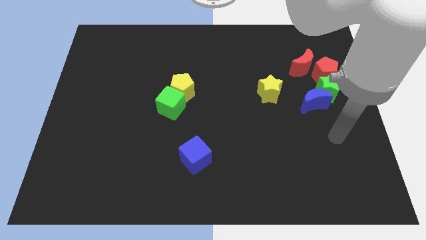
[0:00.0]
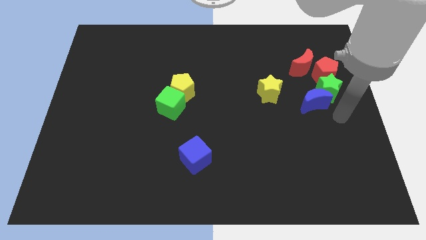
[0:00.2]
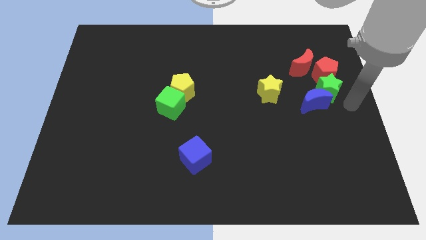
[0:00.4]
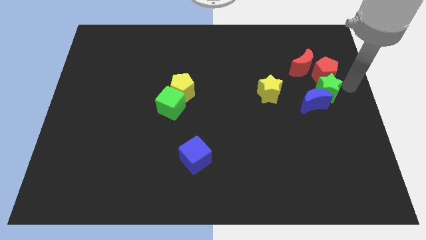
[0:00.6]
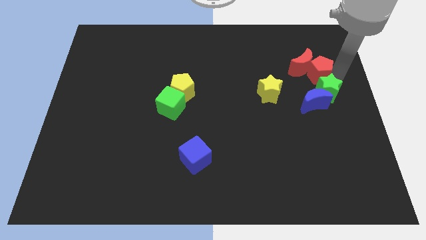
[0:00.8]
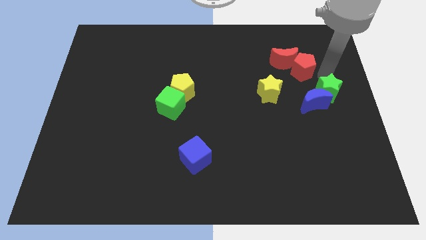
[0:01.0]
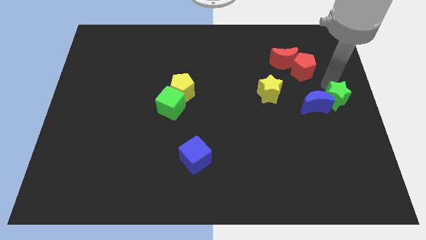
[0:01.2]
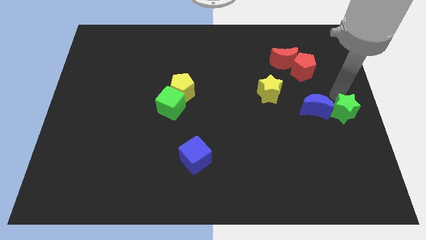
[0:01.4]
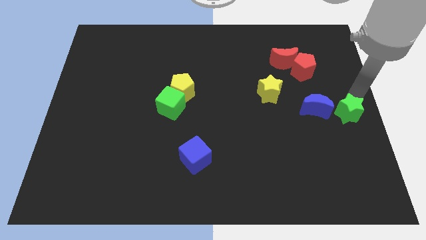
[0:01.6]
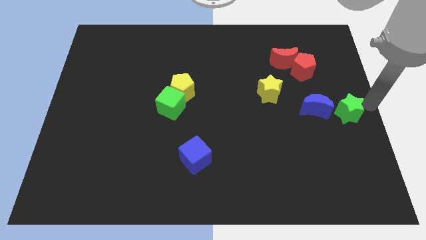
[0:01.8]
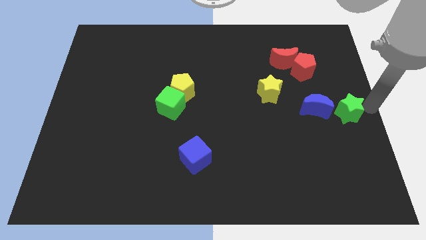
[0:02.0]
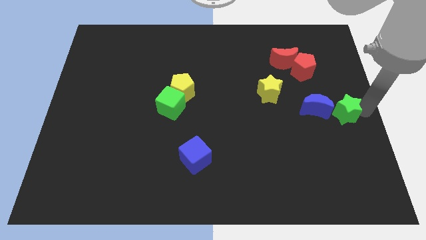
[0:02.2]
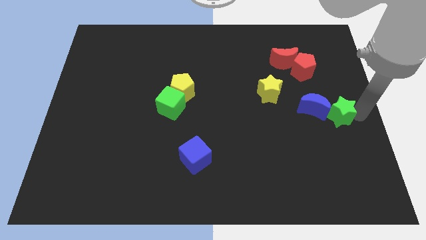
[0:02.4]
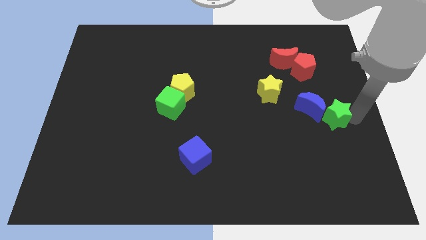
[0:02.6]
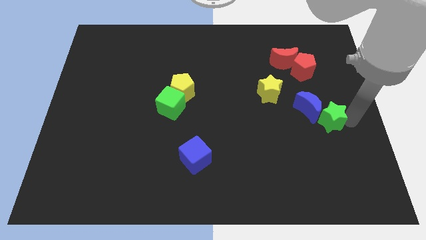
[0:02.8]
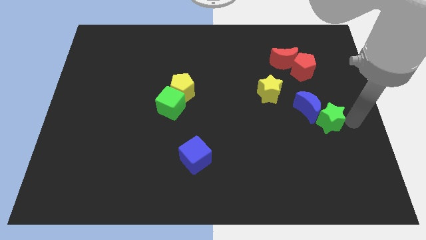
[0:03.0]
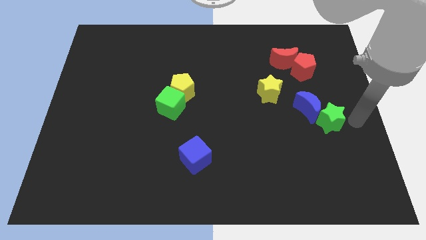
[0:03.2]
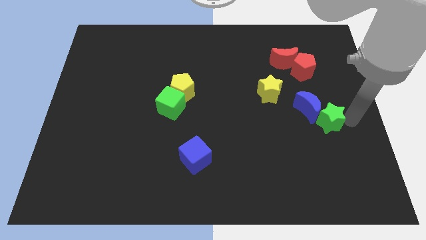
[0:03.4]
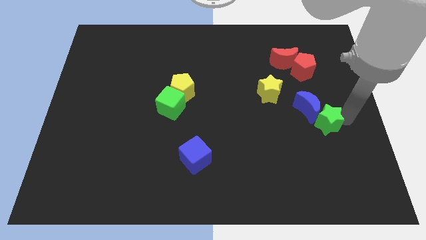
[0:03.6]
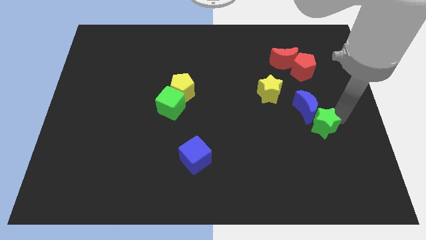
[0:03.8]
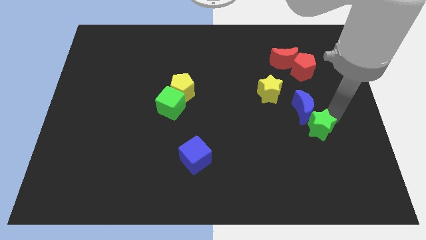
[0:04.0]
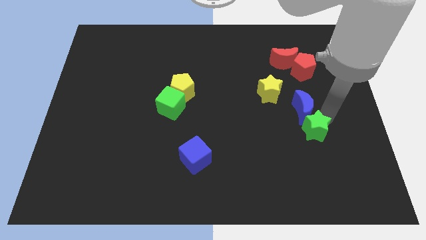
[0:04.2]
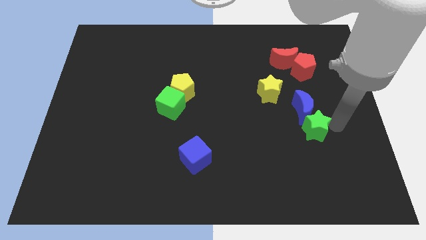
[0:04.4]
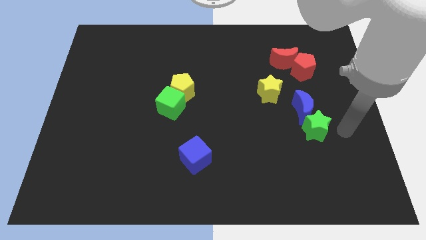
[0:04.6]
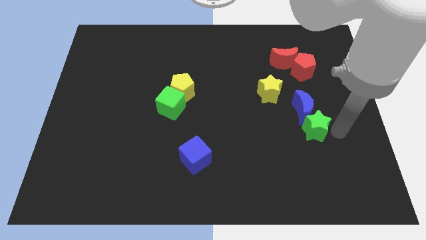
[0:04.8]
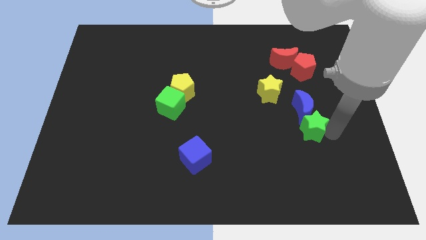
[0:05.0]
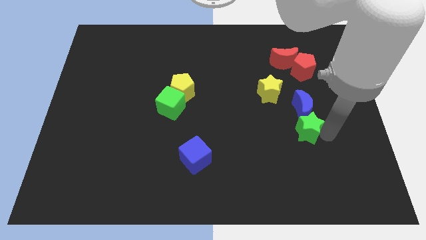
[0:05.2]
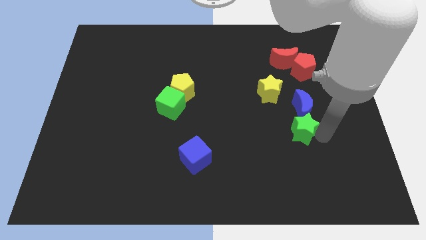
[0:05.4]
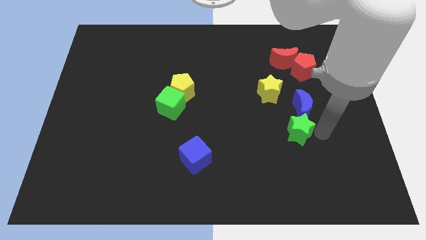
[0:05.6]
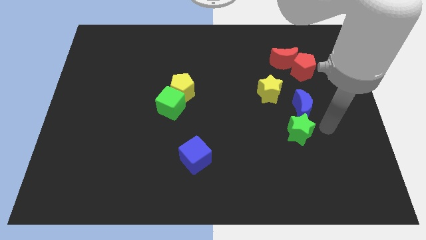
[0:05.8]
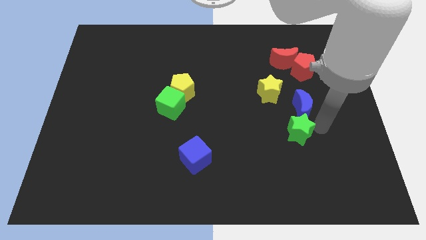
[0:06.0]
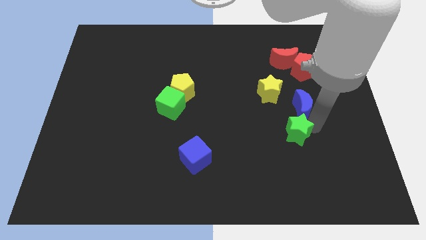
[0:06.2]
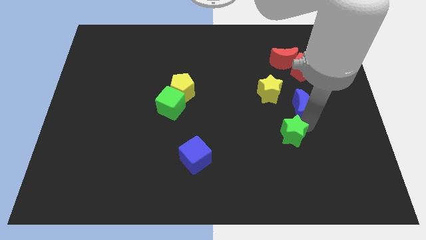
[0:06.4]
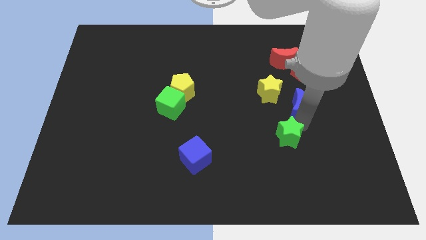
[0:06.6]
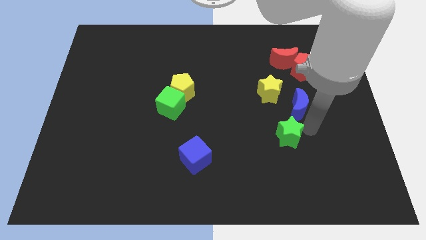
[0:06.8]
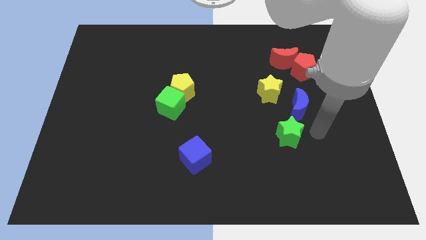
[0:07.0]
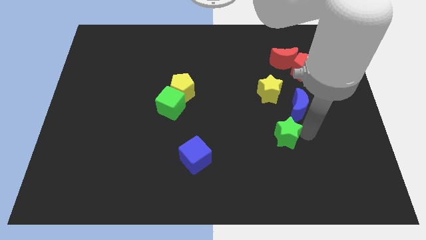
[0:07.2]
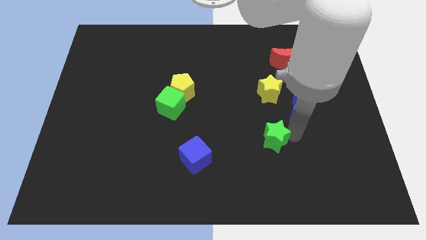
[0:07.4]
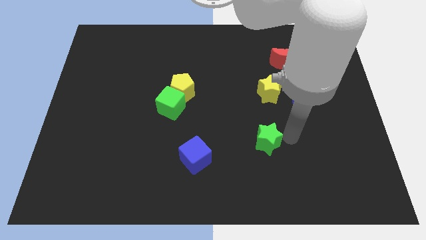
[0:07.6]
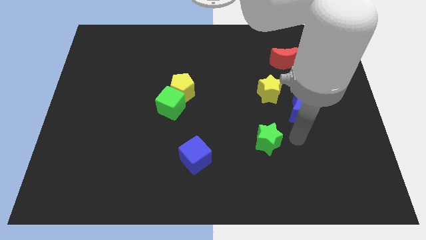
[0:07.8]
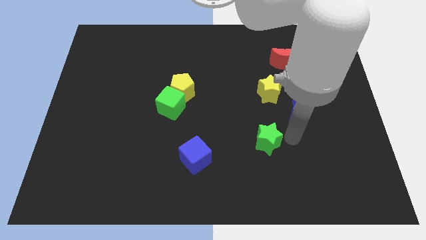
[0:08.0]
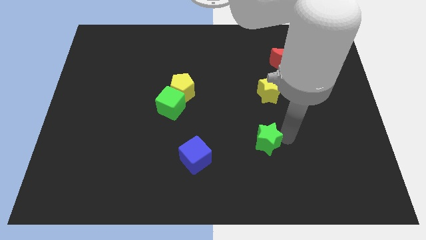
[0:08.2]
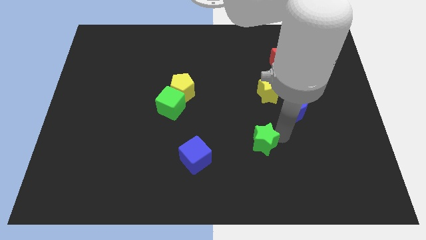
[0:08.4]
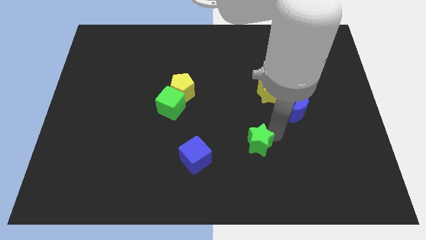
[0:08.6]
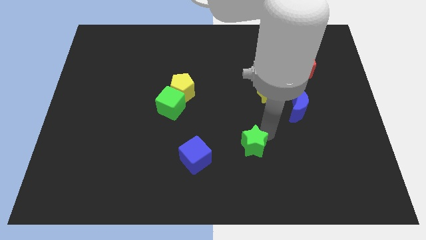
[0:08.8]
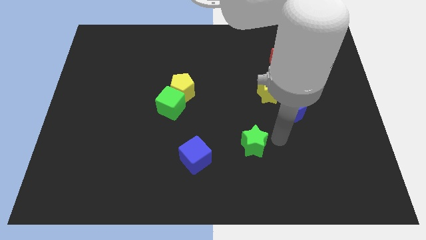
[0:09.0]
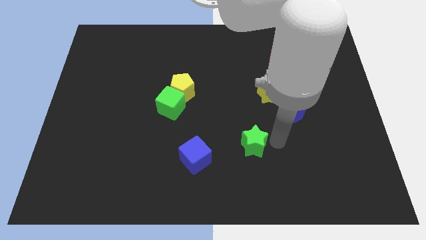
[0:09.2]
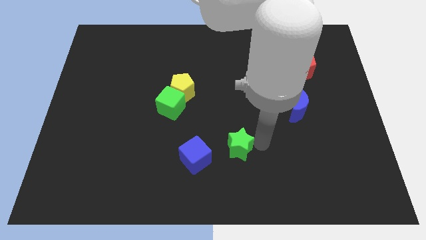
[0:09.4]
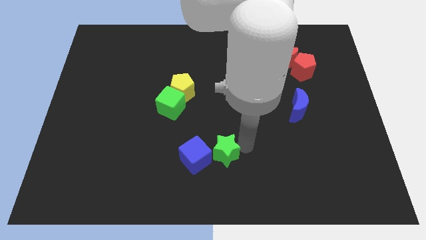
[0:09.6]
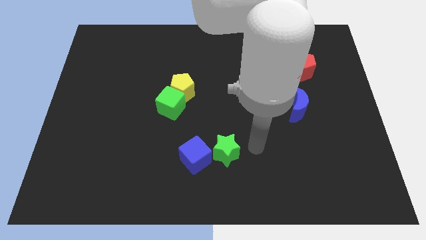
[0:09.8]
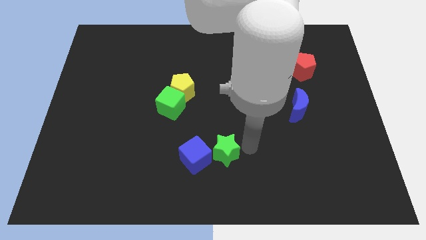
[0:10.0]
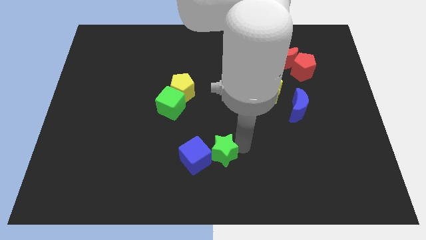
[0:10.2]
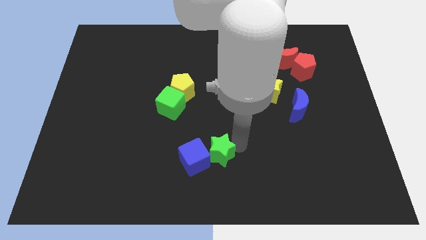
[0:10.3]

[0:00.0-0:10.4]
slide the green star to the blue cube

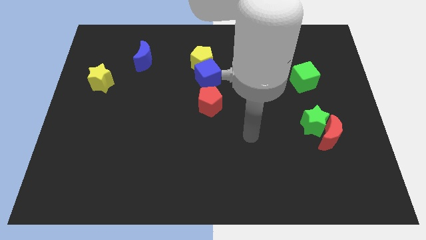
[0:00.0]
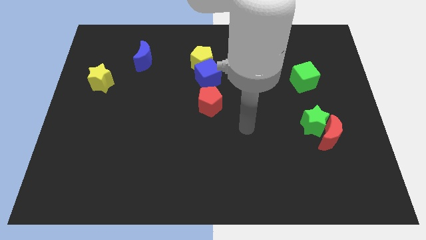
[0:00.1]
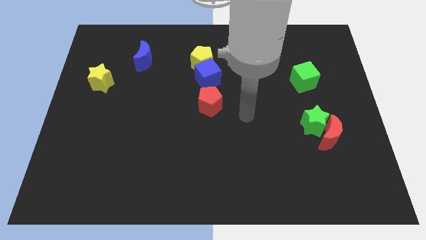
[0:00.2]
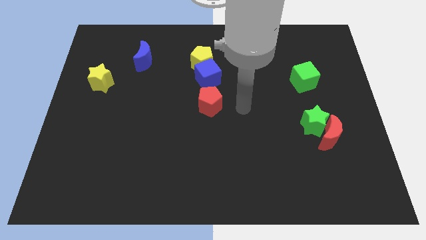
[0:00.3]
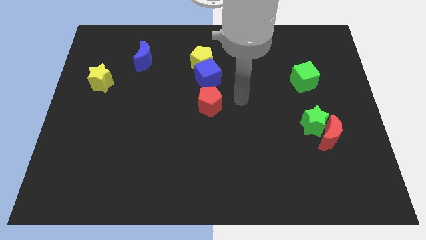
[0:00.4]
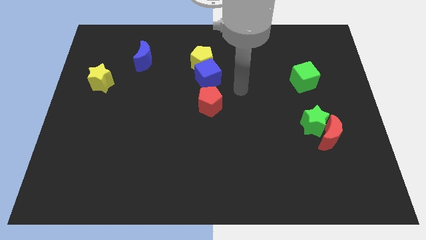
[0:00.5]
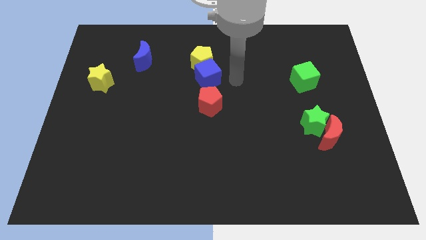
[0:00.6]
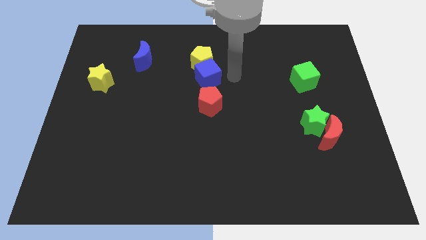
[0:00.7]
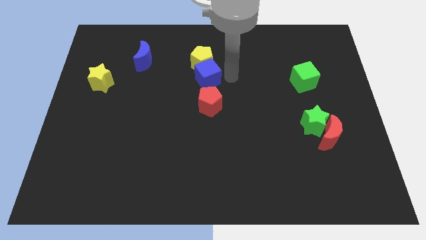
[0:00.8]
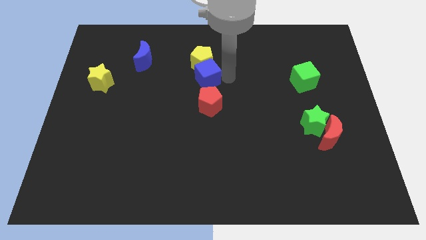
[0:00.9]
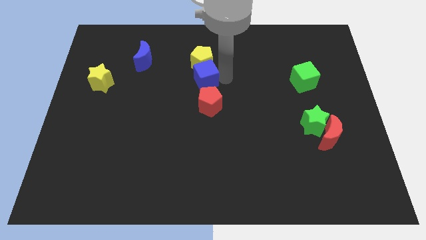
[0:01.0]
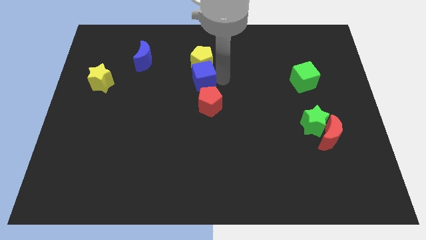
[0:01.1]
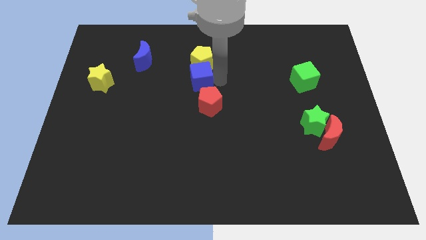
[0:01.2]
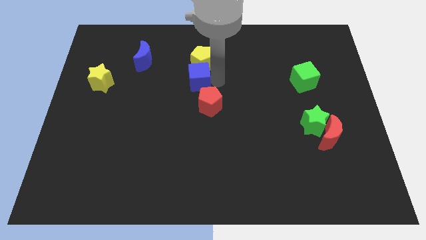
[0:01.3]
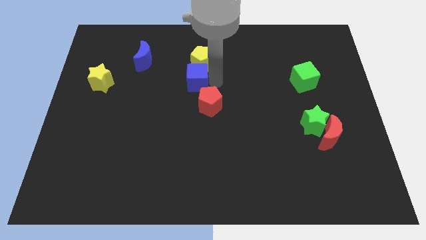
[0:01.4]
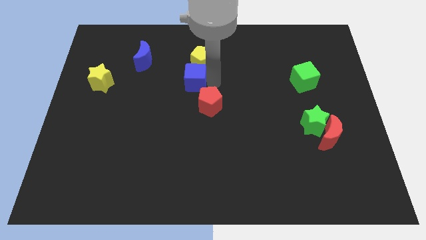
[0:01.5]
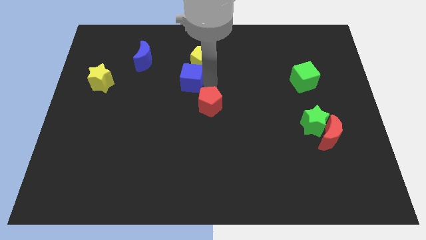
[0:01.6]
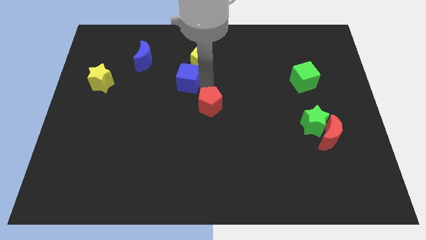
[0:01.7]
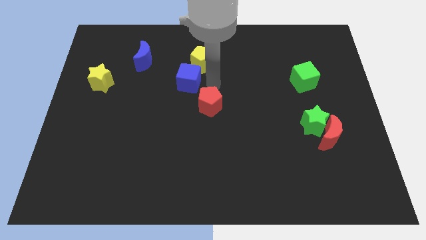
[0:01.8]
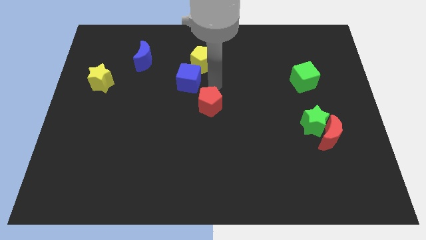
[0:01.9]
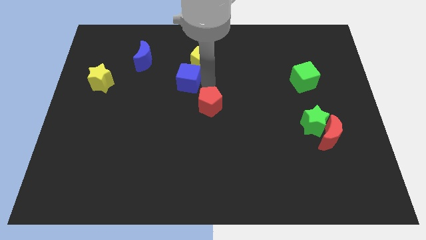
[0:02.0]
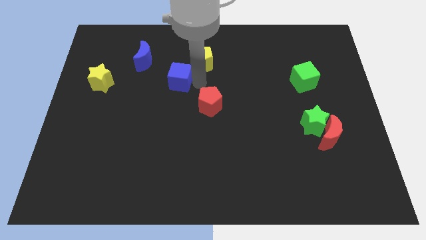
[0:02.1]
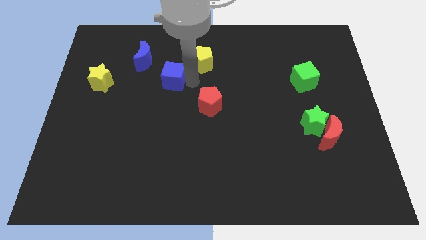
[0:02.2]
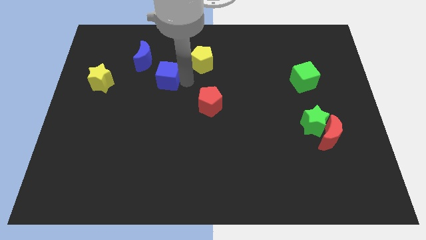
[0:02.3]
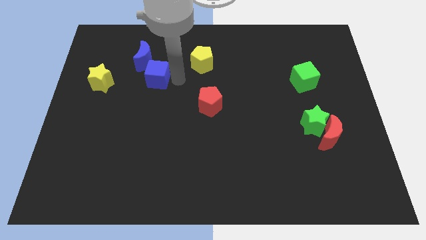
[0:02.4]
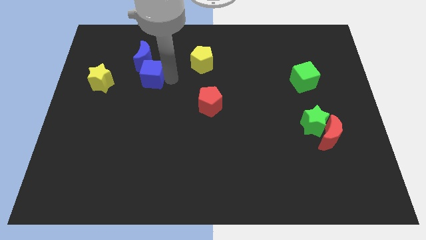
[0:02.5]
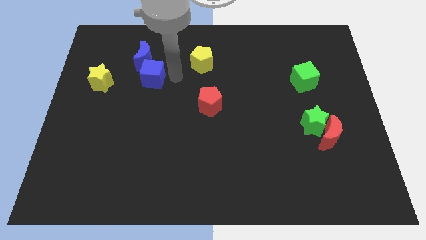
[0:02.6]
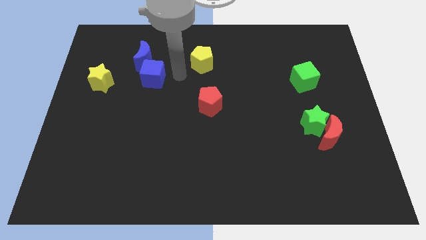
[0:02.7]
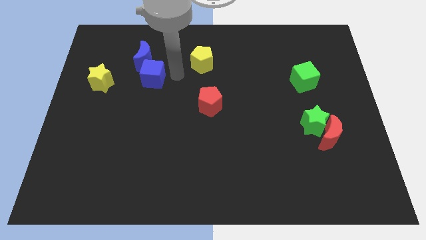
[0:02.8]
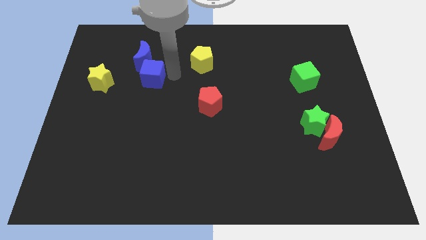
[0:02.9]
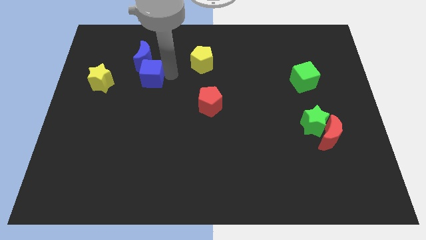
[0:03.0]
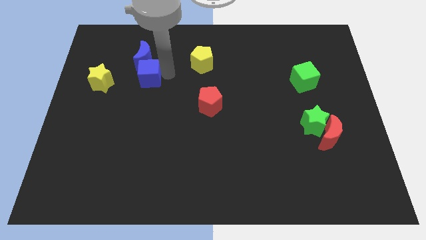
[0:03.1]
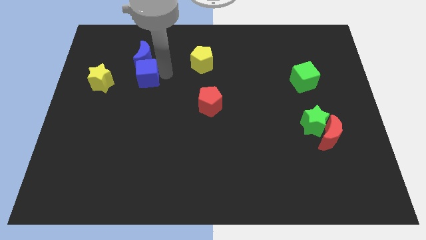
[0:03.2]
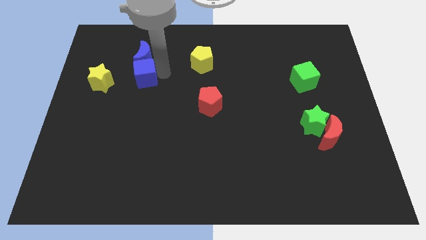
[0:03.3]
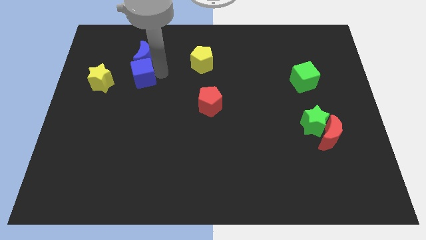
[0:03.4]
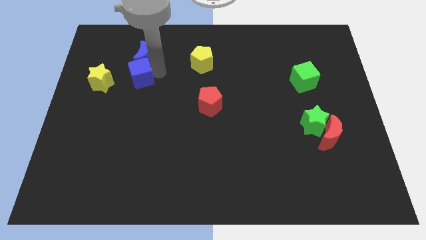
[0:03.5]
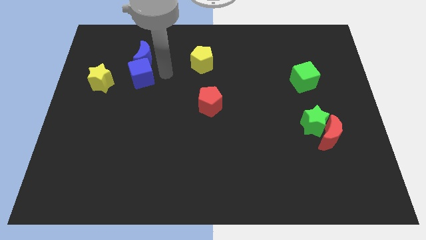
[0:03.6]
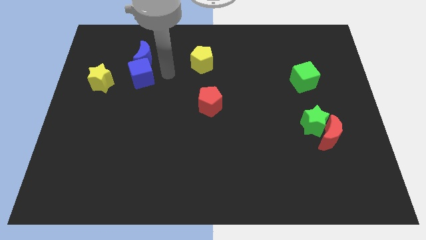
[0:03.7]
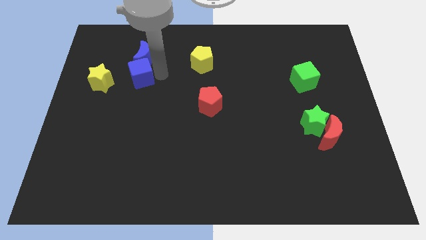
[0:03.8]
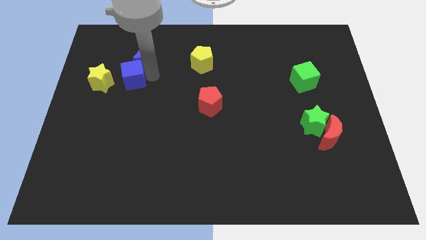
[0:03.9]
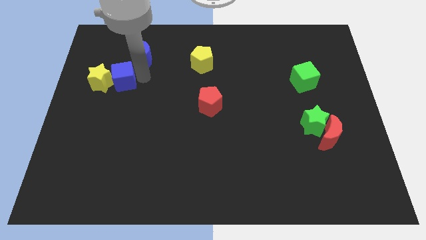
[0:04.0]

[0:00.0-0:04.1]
move the blue cube towards the yellow star
